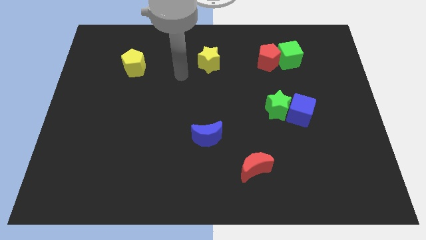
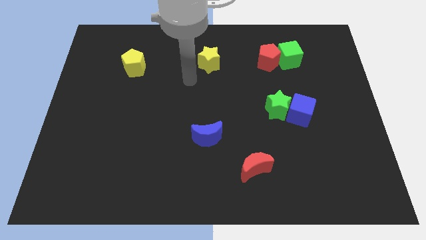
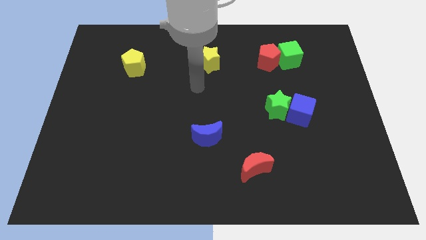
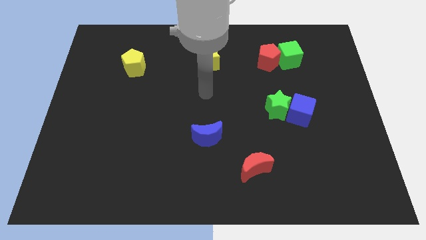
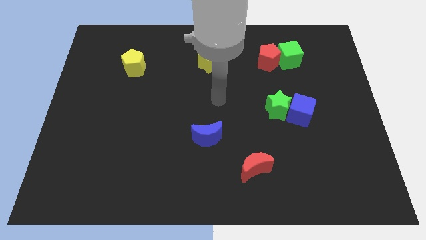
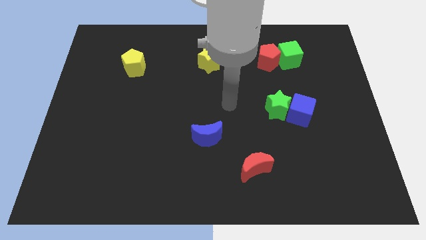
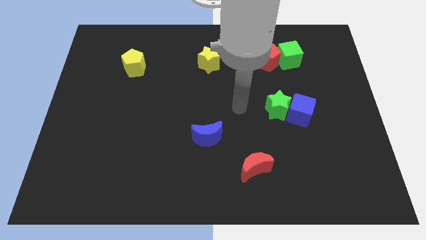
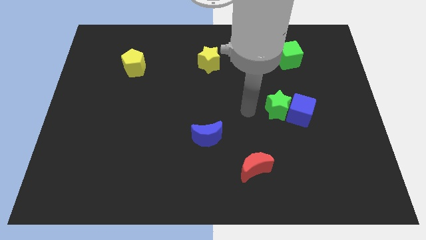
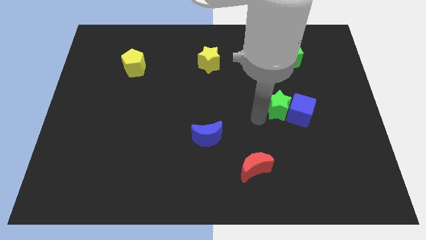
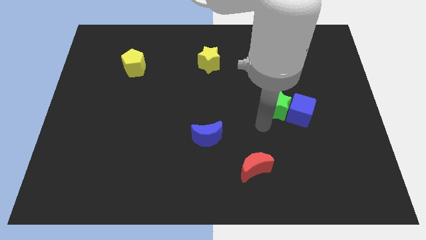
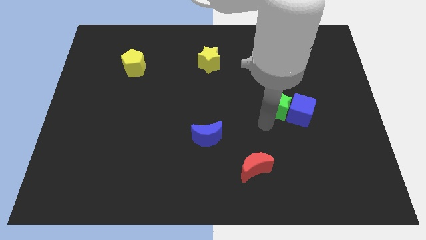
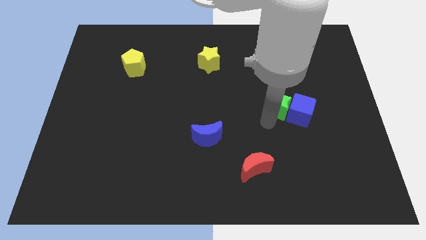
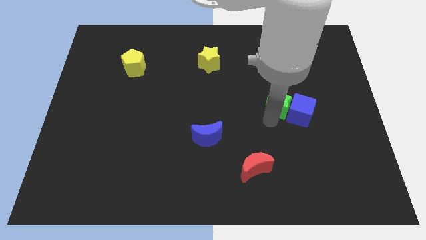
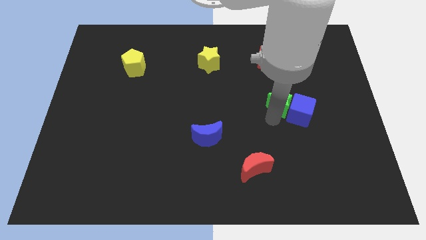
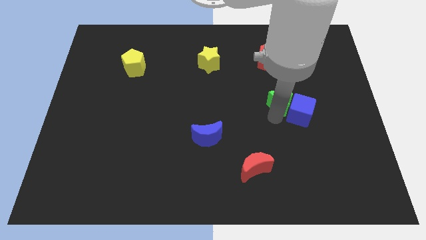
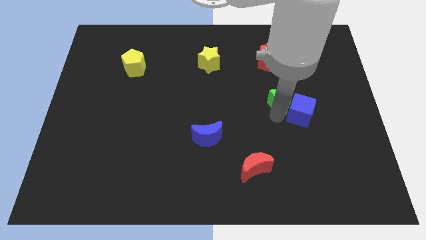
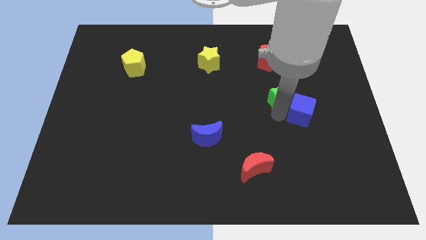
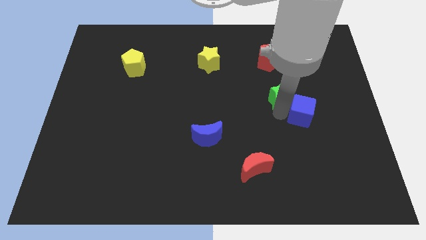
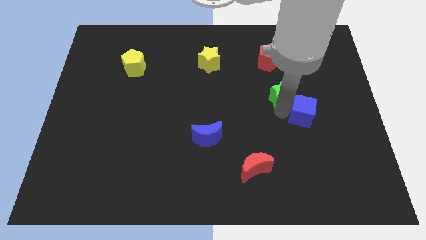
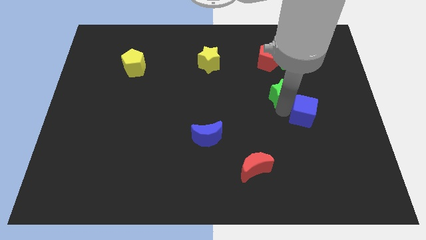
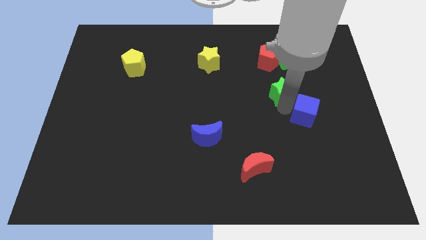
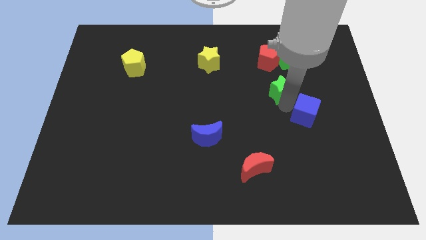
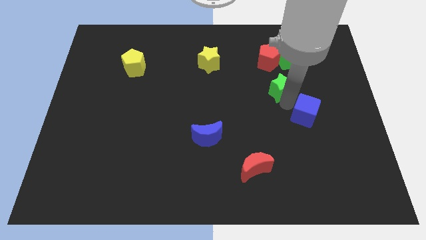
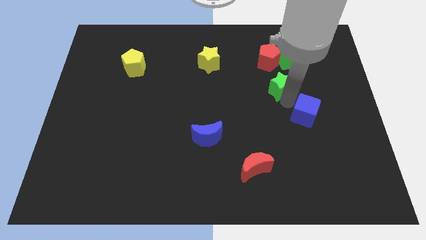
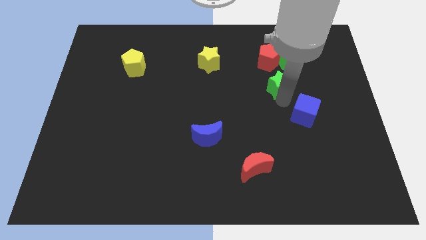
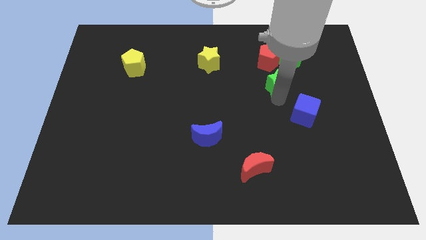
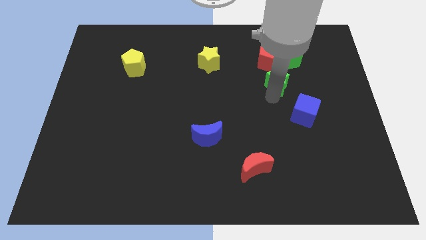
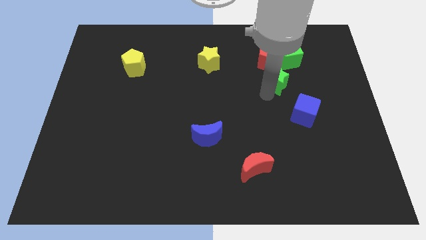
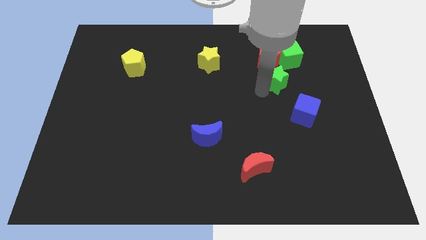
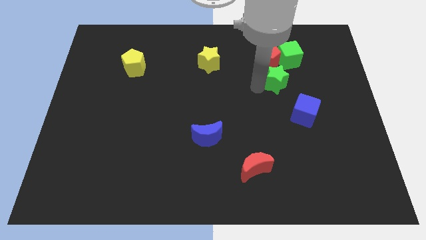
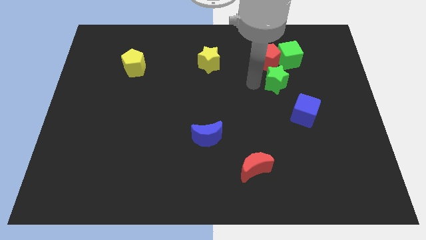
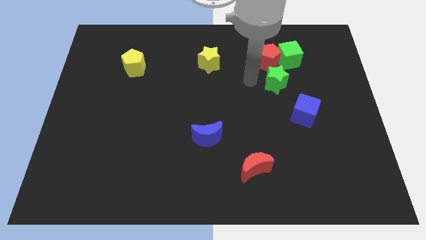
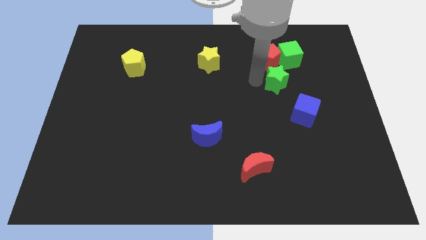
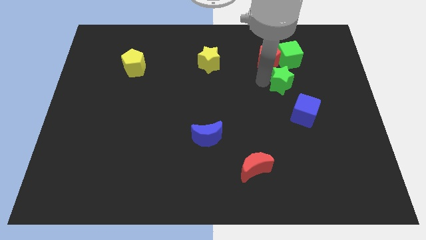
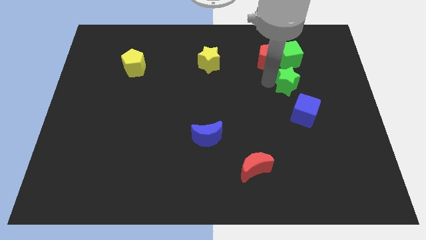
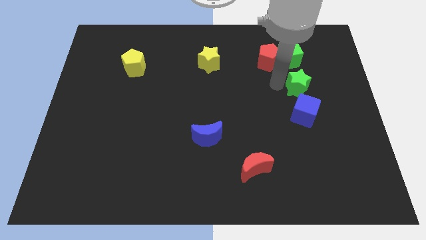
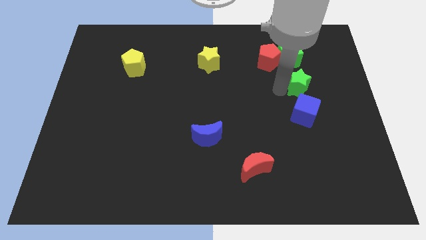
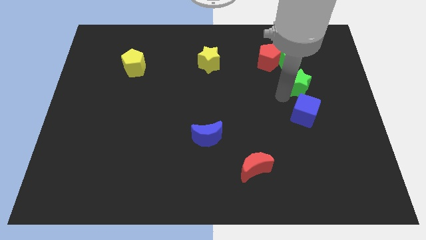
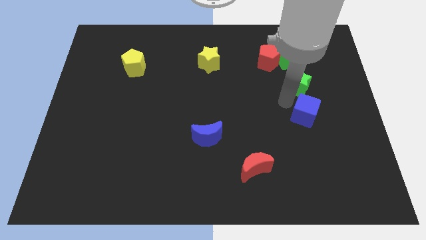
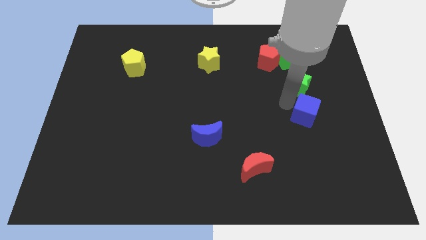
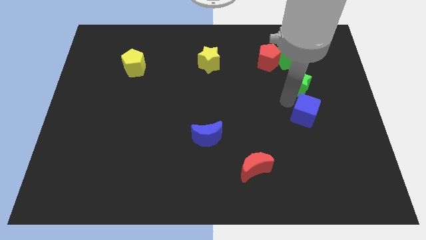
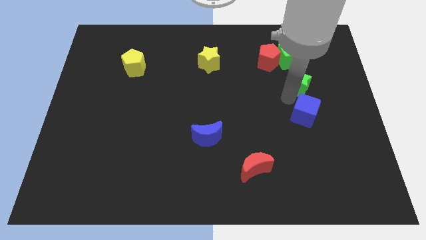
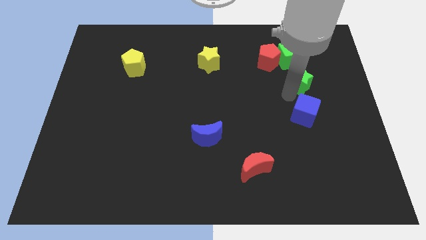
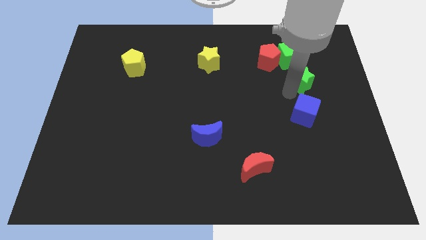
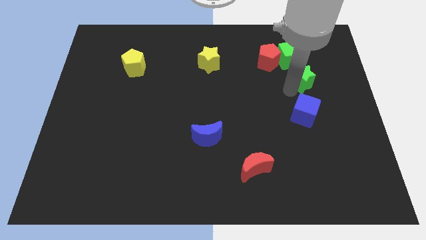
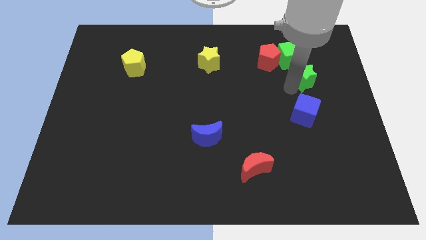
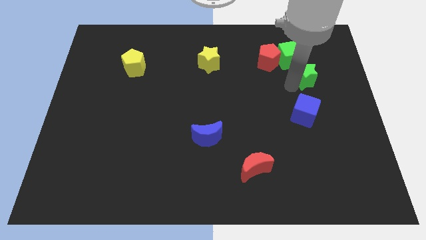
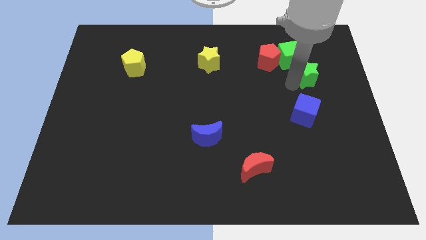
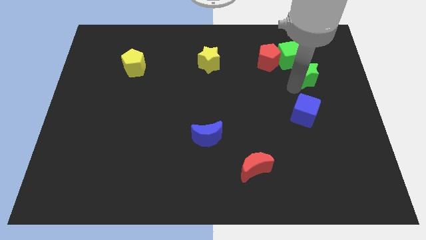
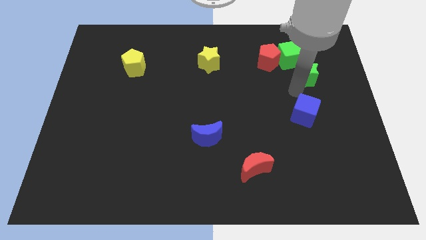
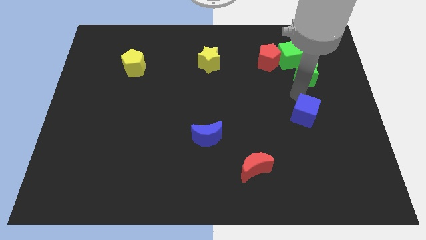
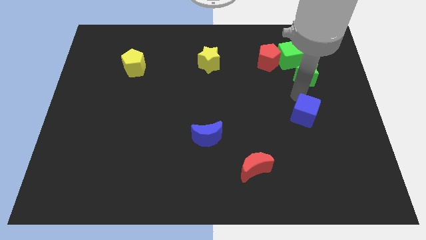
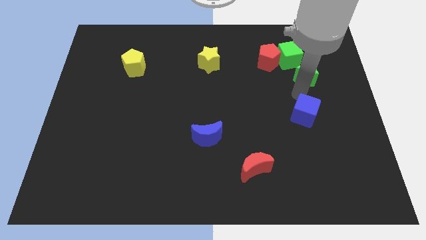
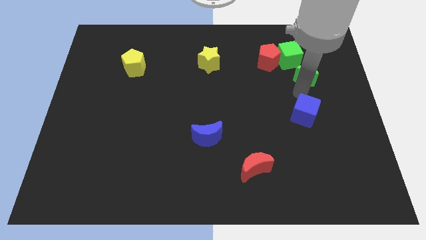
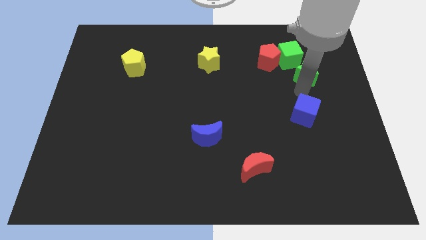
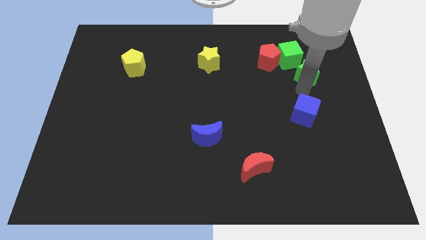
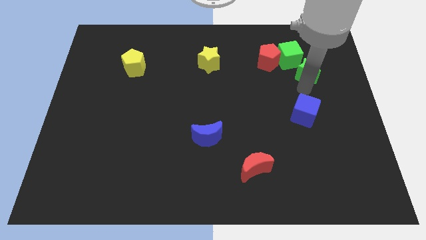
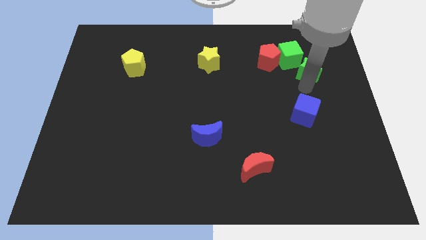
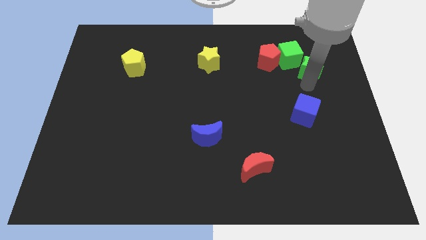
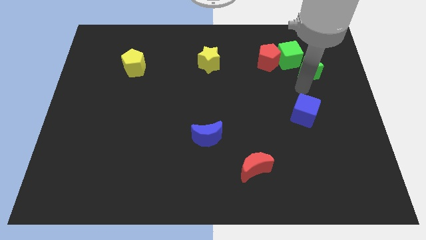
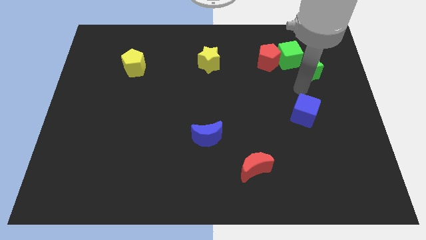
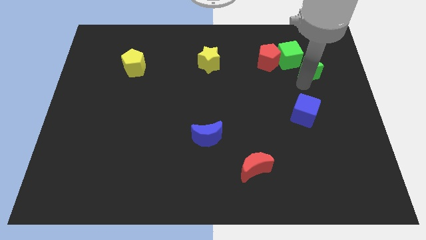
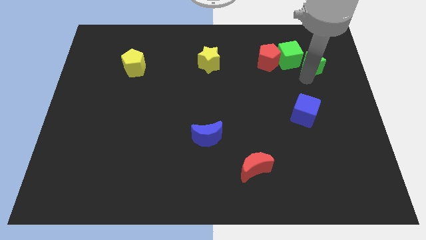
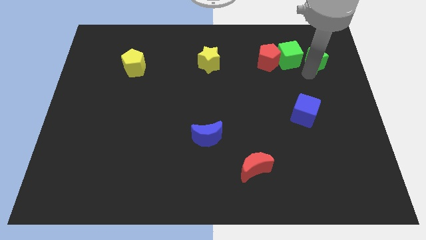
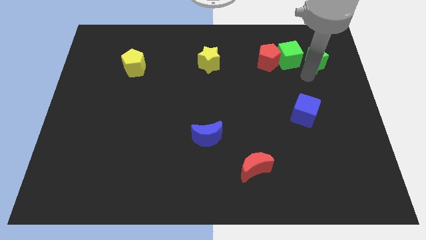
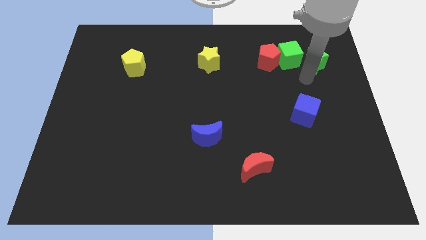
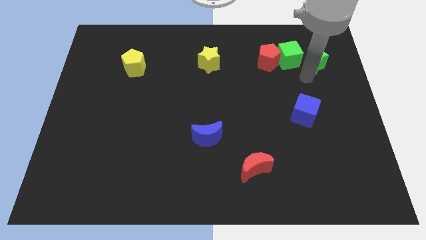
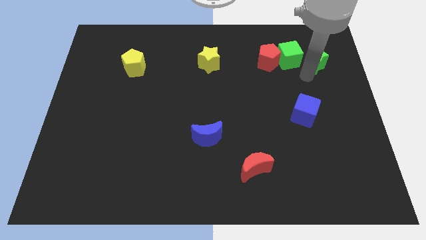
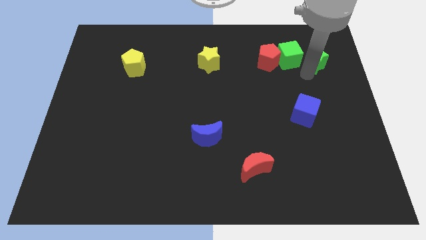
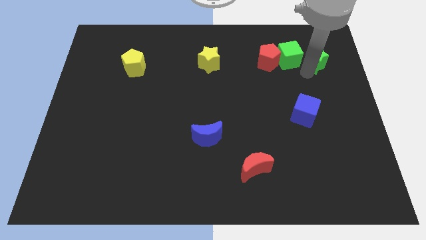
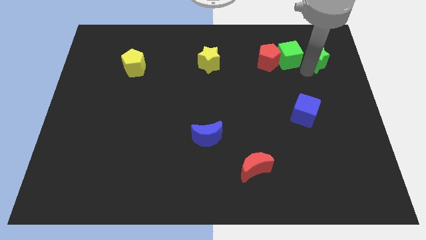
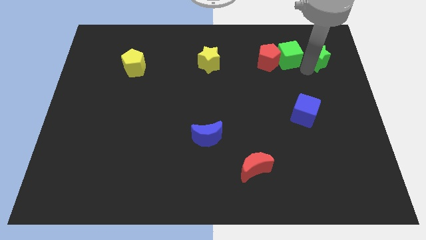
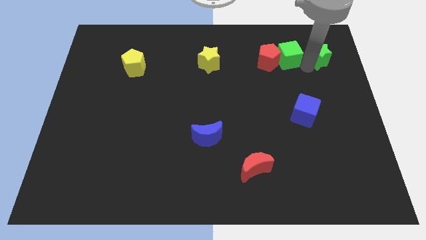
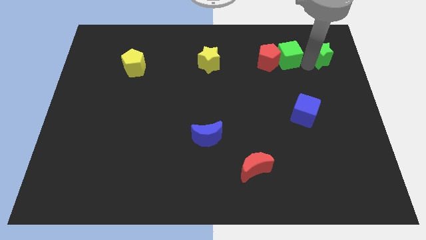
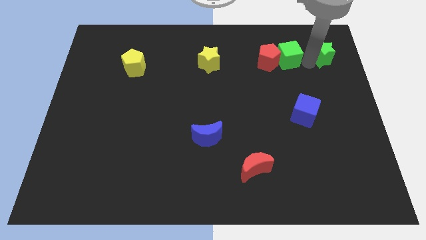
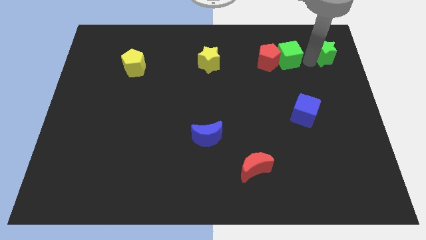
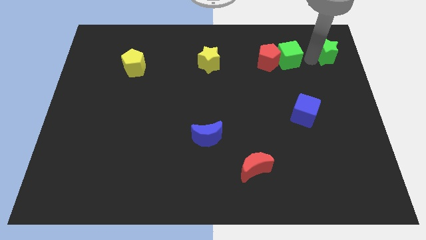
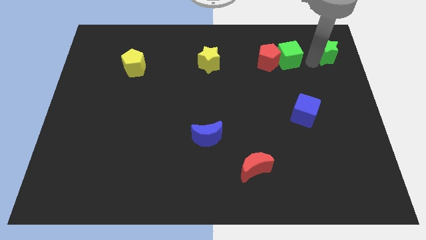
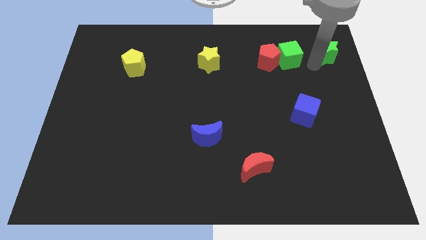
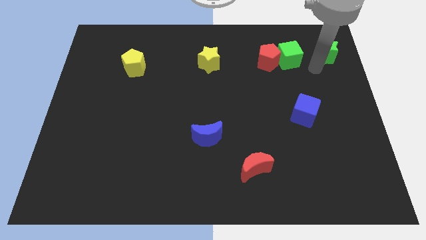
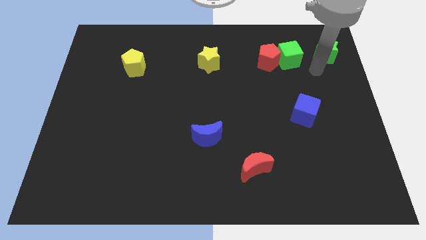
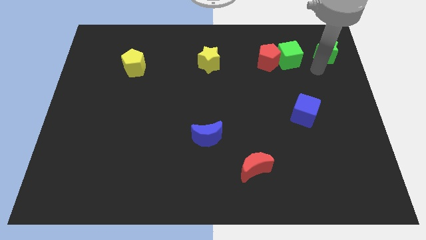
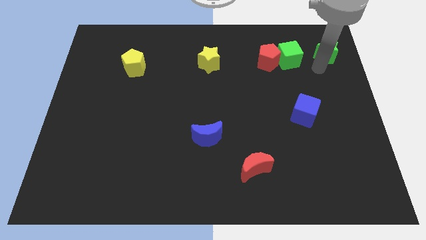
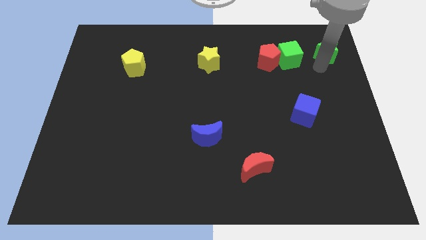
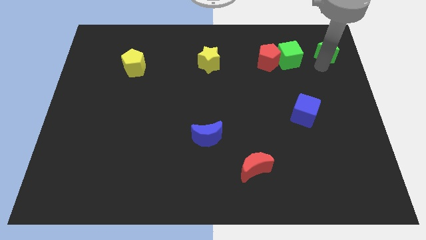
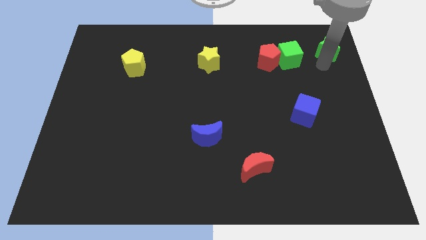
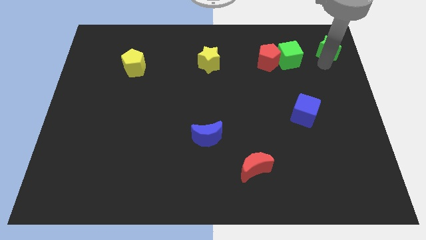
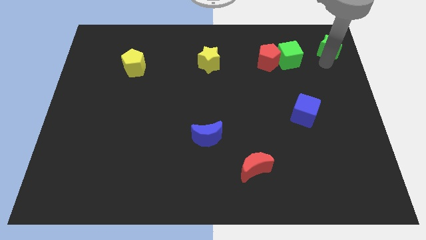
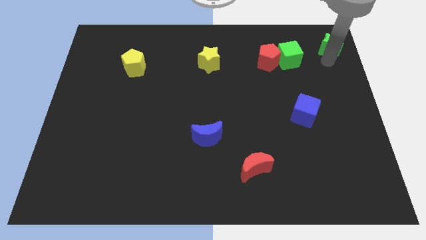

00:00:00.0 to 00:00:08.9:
move the green star to the top right corner
